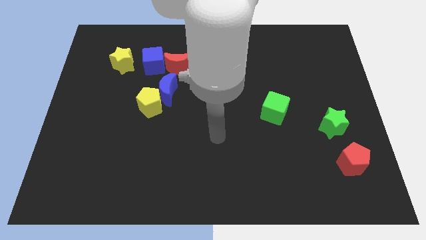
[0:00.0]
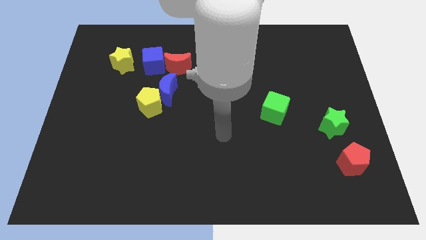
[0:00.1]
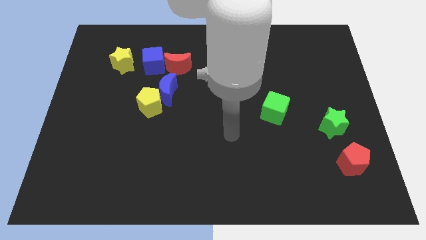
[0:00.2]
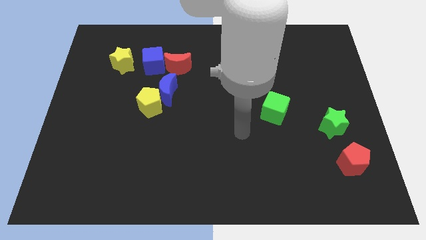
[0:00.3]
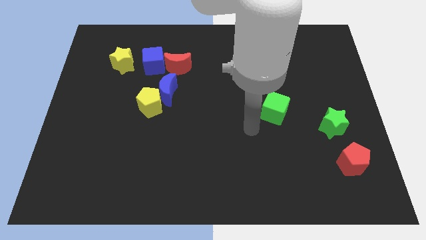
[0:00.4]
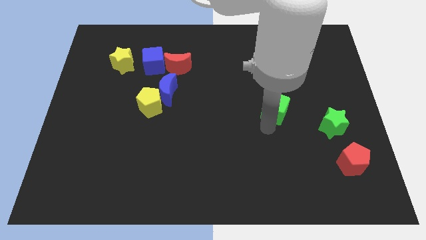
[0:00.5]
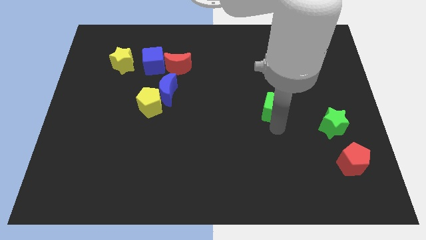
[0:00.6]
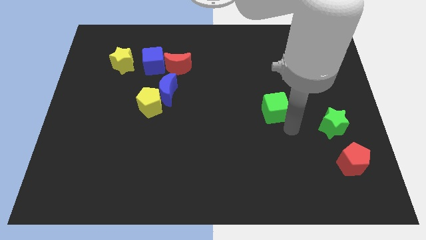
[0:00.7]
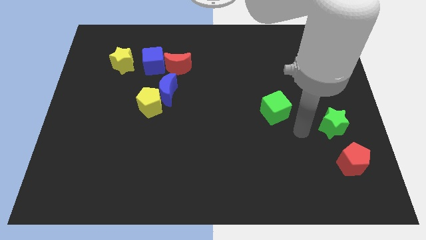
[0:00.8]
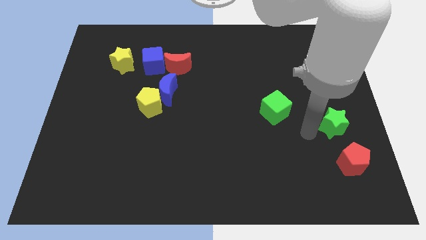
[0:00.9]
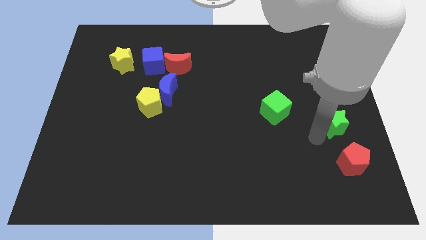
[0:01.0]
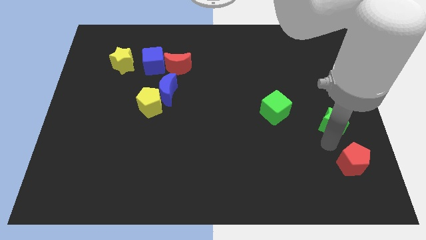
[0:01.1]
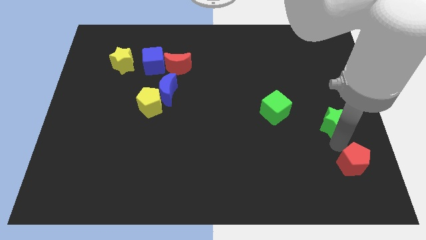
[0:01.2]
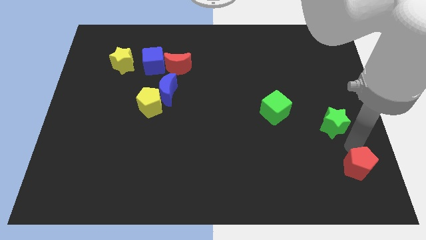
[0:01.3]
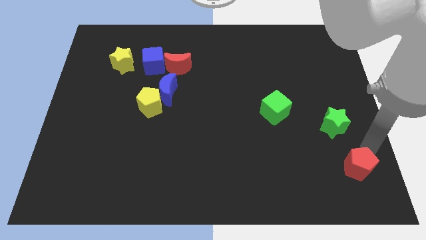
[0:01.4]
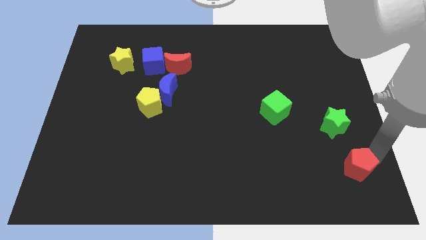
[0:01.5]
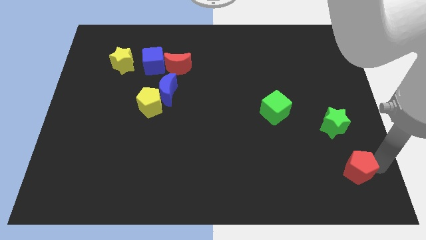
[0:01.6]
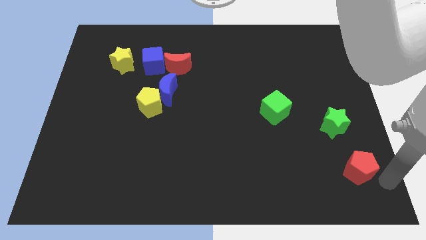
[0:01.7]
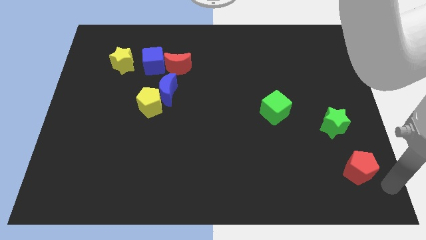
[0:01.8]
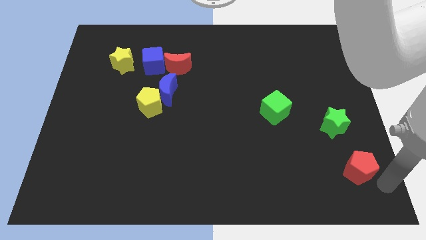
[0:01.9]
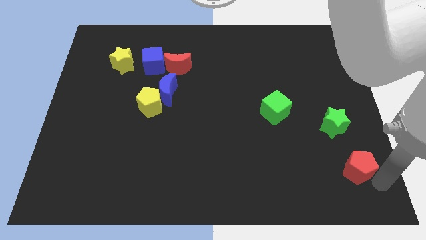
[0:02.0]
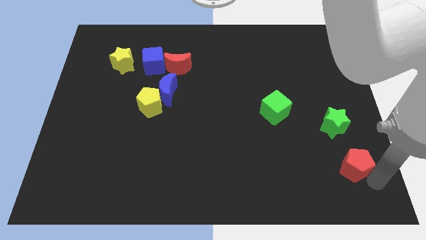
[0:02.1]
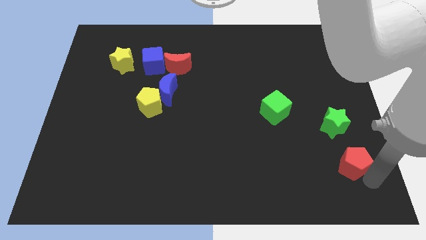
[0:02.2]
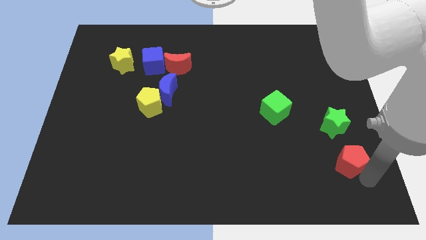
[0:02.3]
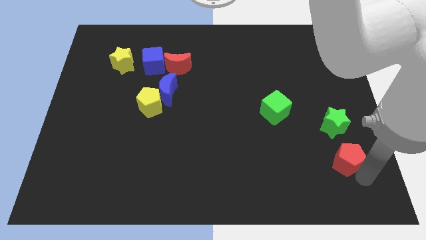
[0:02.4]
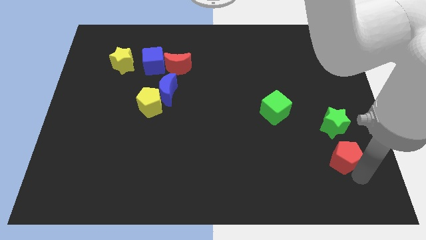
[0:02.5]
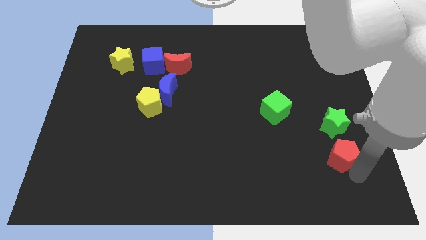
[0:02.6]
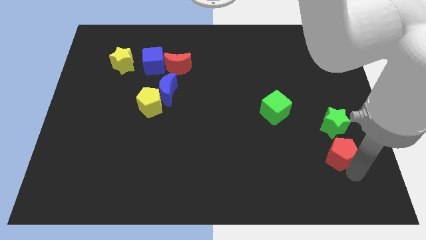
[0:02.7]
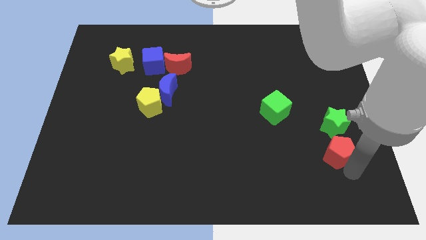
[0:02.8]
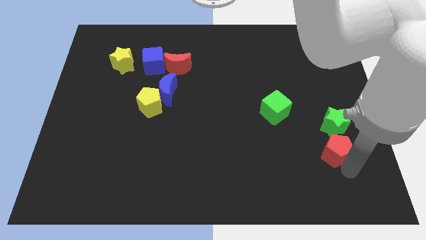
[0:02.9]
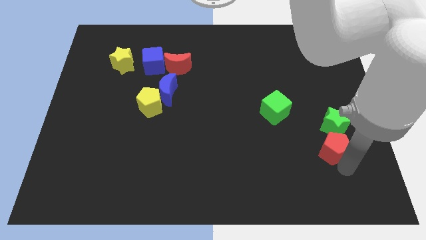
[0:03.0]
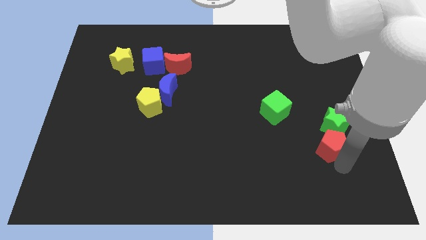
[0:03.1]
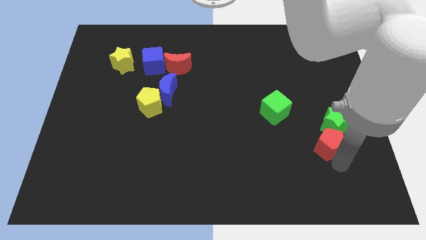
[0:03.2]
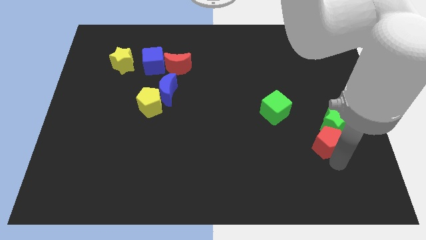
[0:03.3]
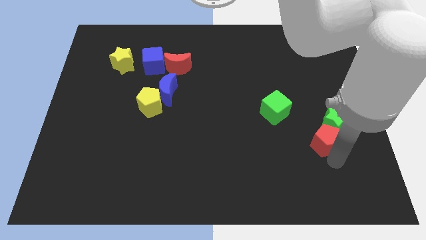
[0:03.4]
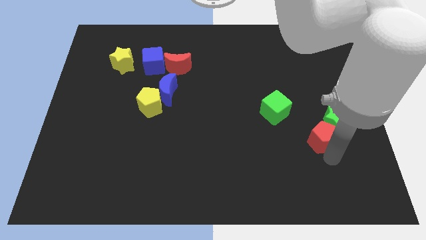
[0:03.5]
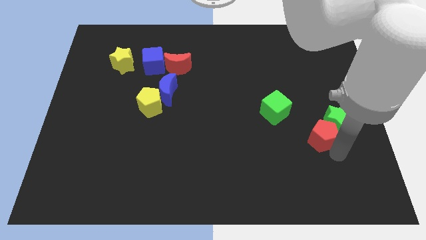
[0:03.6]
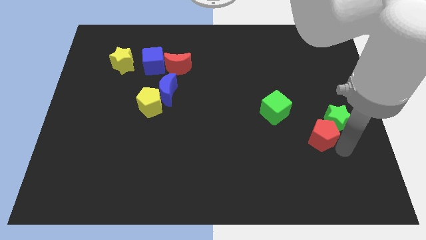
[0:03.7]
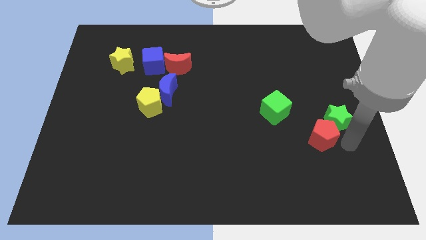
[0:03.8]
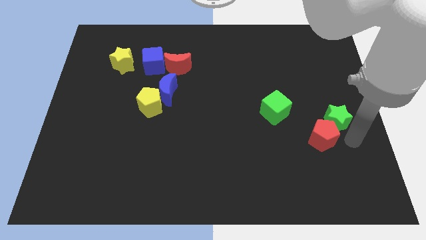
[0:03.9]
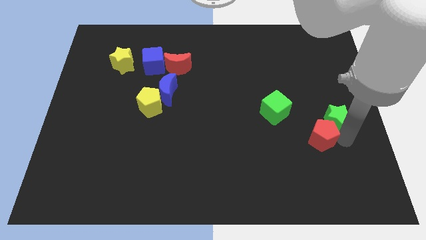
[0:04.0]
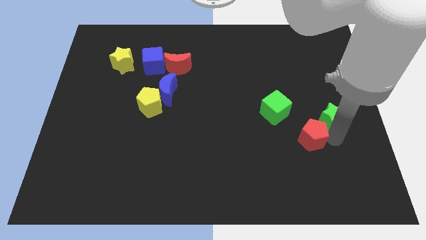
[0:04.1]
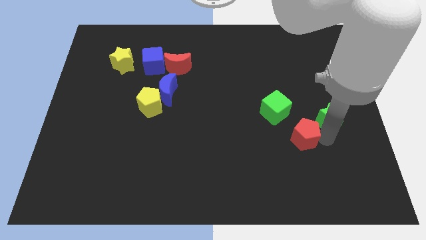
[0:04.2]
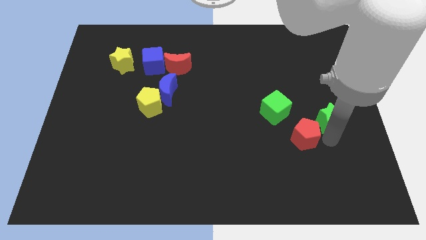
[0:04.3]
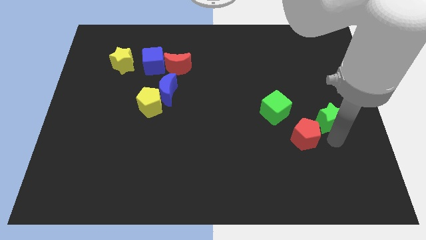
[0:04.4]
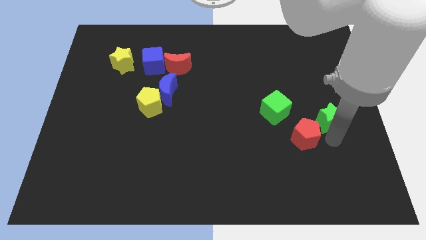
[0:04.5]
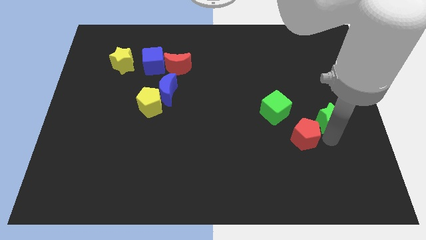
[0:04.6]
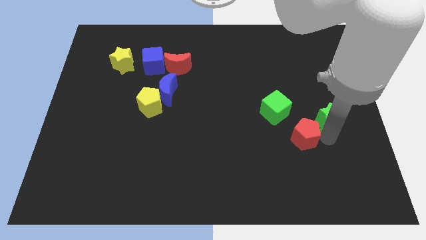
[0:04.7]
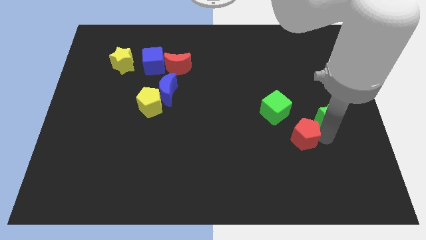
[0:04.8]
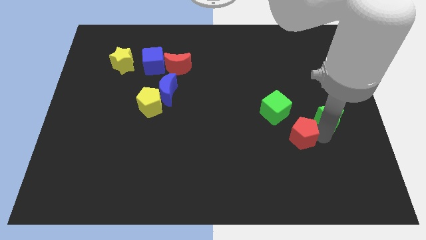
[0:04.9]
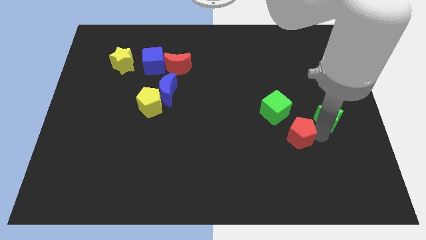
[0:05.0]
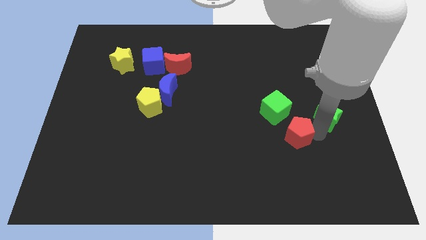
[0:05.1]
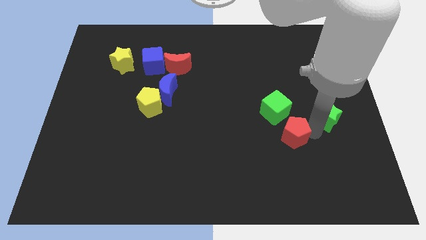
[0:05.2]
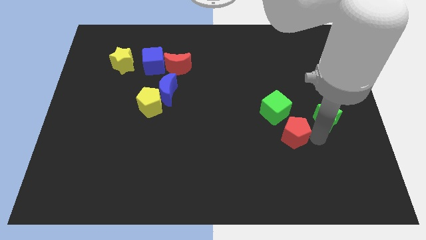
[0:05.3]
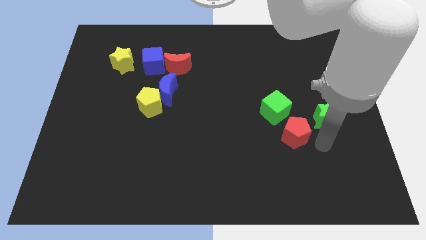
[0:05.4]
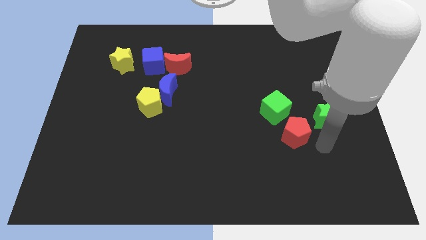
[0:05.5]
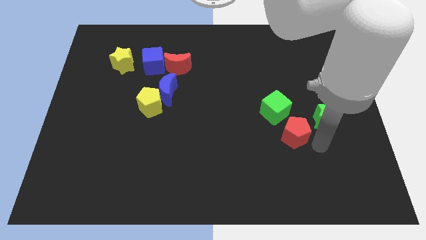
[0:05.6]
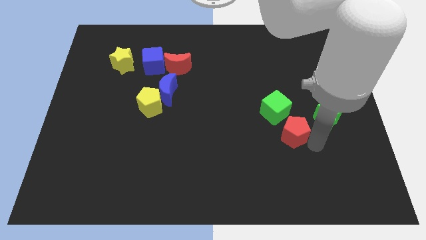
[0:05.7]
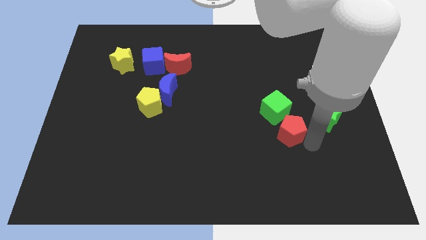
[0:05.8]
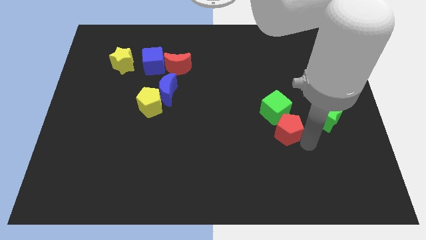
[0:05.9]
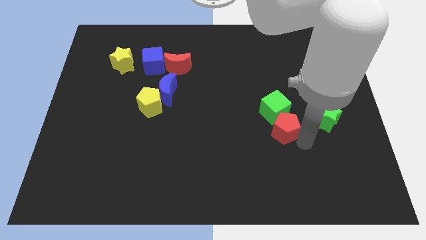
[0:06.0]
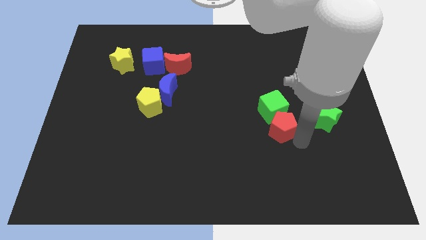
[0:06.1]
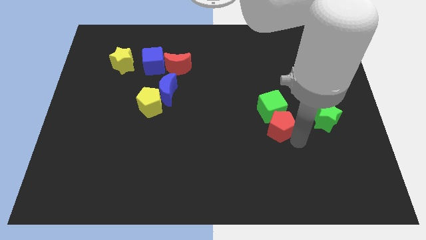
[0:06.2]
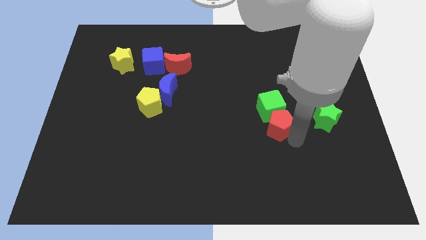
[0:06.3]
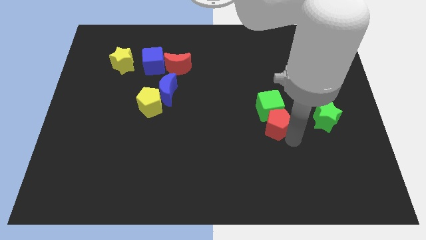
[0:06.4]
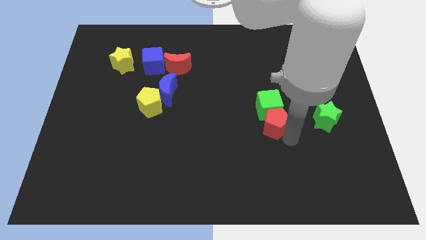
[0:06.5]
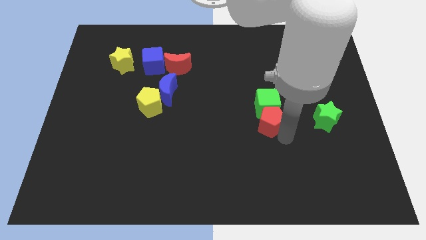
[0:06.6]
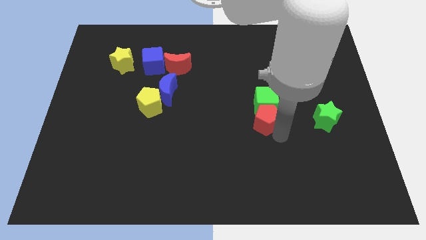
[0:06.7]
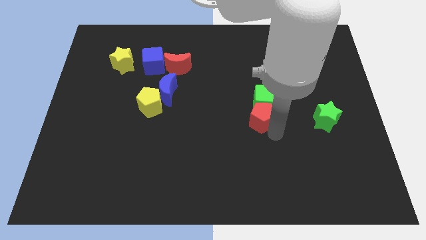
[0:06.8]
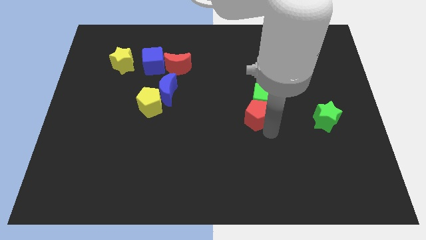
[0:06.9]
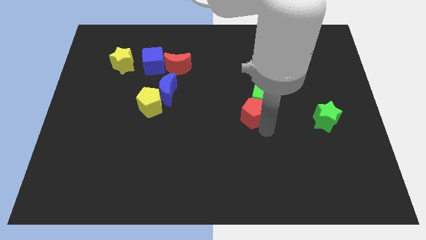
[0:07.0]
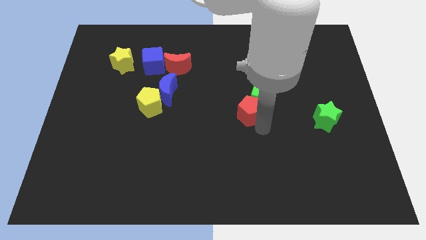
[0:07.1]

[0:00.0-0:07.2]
push the red pentagon just left of the green cube
